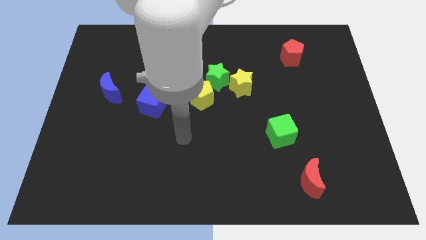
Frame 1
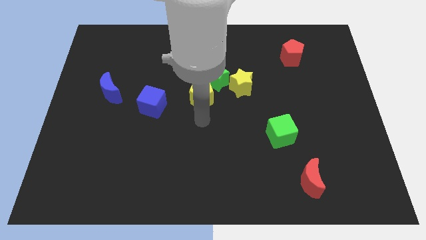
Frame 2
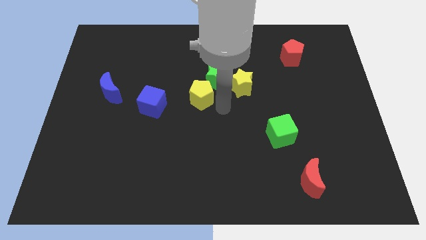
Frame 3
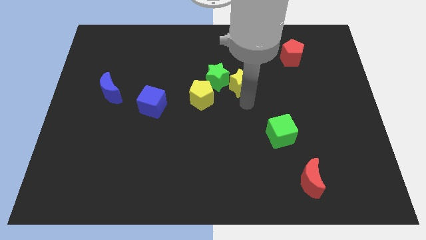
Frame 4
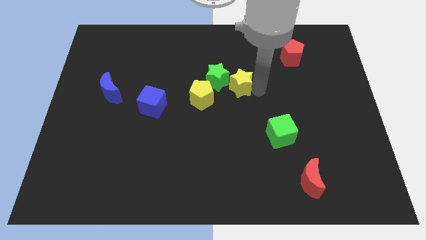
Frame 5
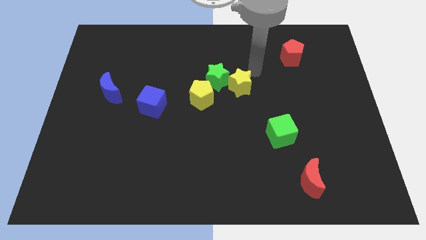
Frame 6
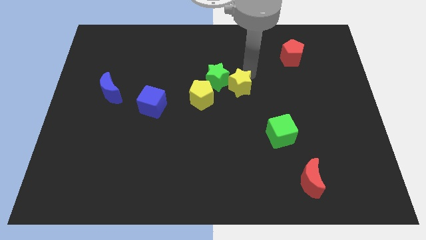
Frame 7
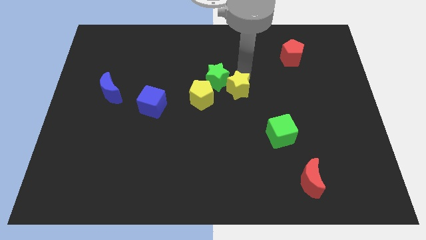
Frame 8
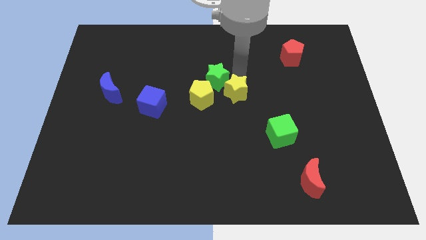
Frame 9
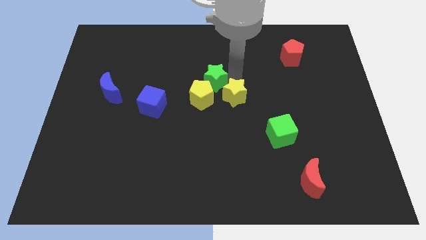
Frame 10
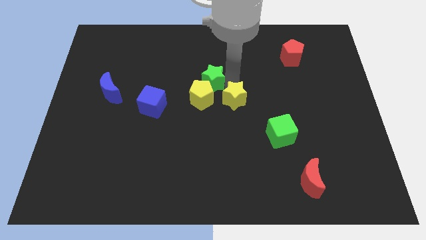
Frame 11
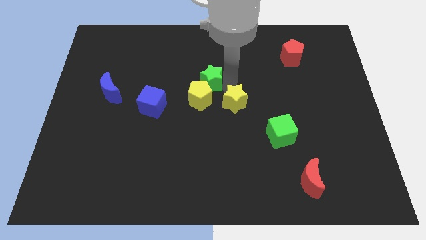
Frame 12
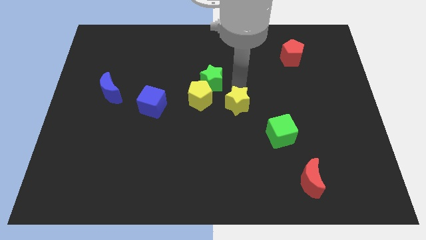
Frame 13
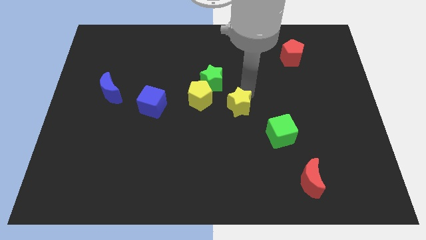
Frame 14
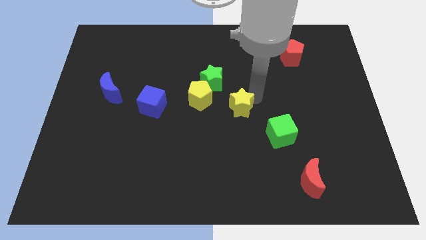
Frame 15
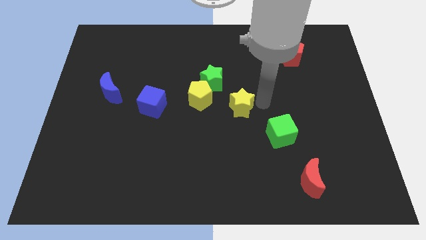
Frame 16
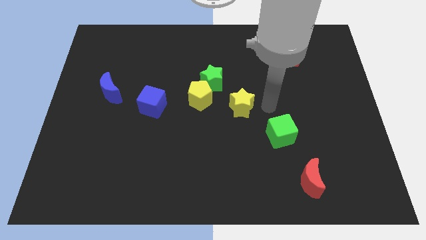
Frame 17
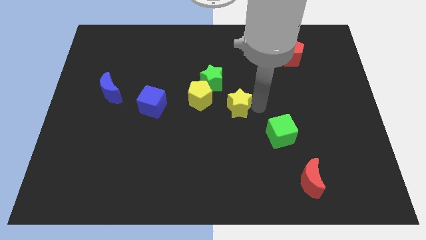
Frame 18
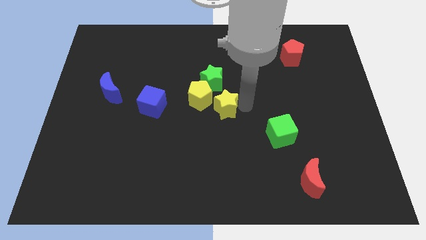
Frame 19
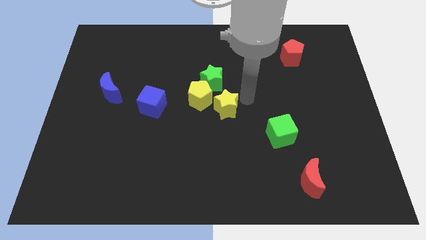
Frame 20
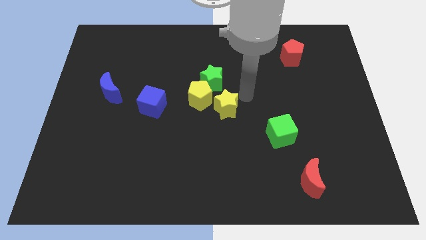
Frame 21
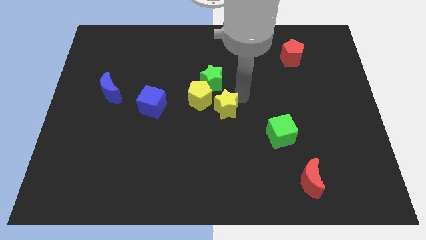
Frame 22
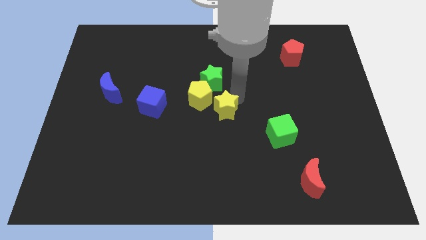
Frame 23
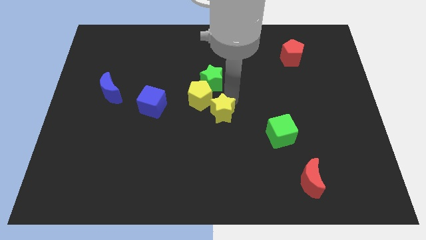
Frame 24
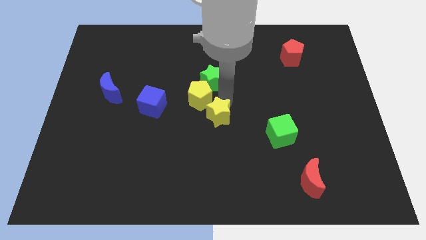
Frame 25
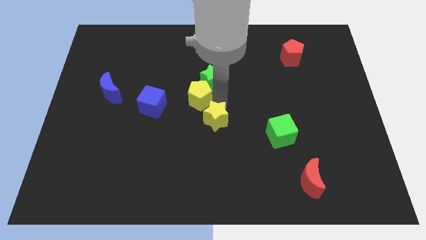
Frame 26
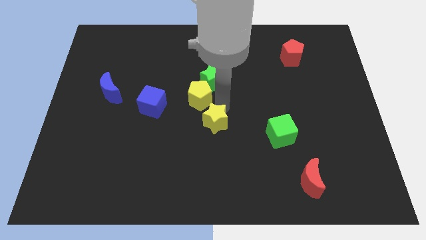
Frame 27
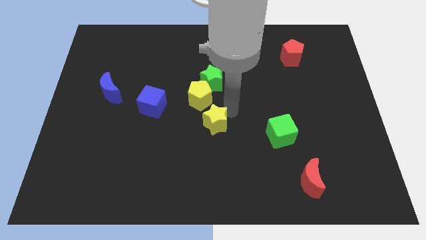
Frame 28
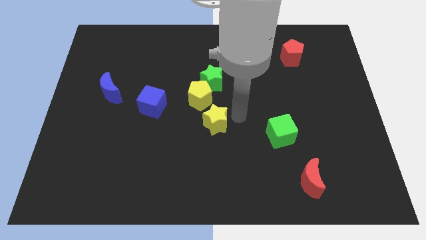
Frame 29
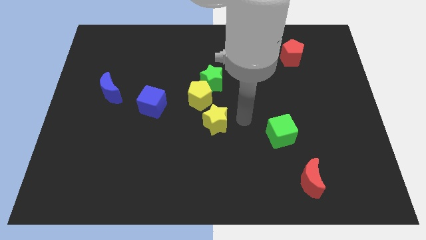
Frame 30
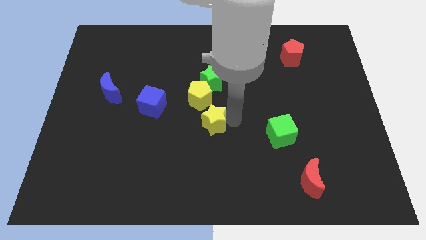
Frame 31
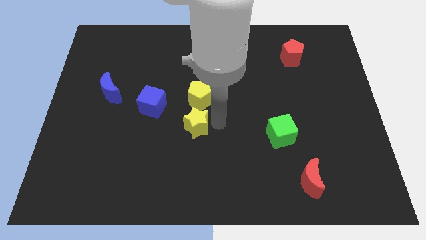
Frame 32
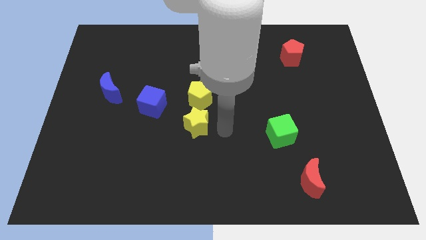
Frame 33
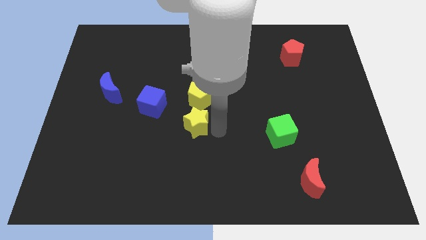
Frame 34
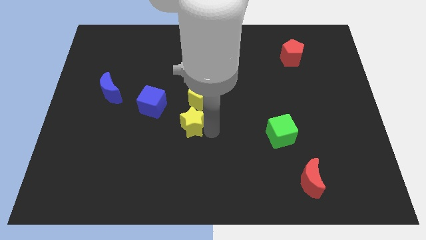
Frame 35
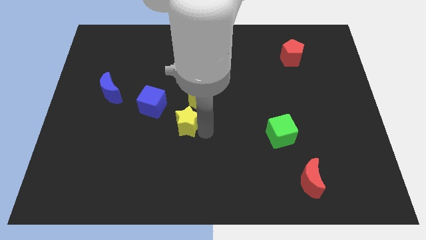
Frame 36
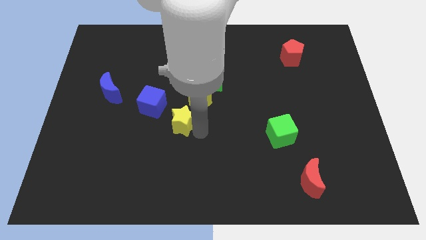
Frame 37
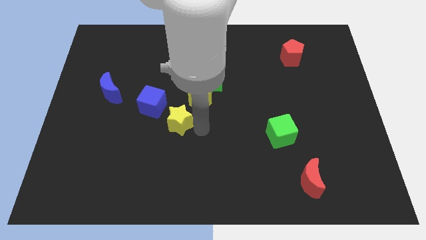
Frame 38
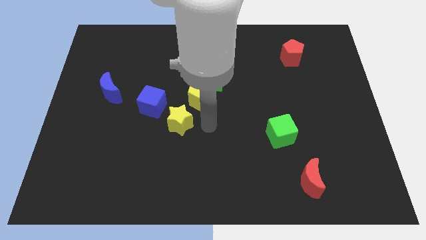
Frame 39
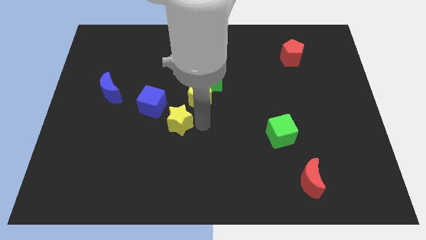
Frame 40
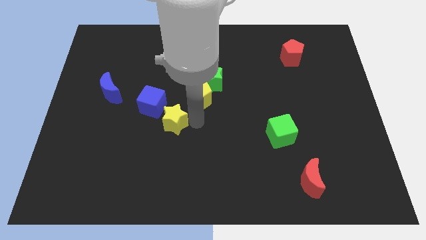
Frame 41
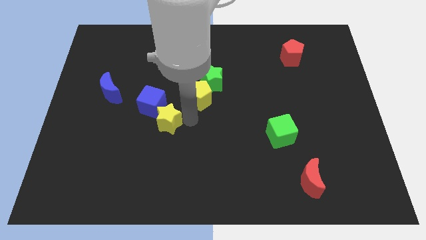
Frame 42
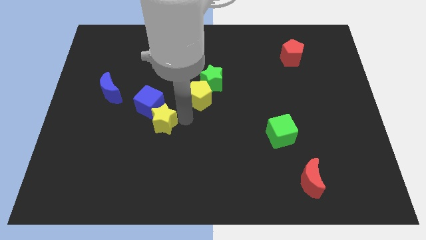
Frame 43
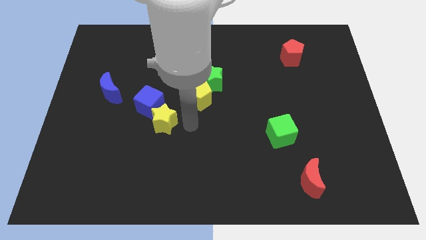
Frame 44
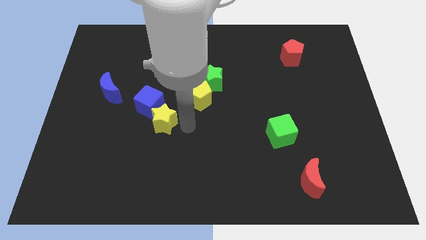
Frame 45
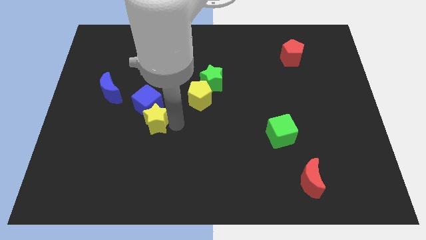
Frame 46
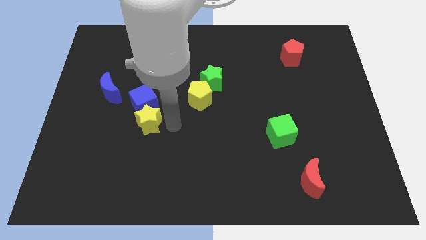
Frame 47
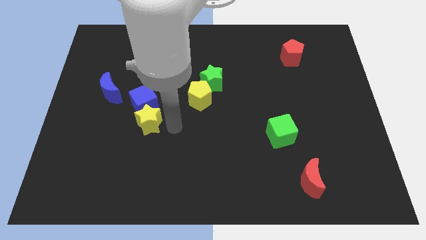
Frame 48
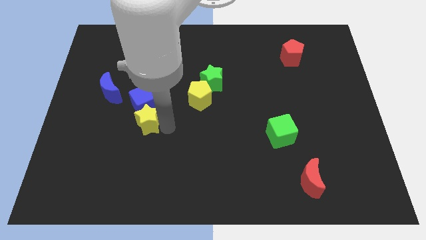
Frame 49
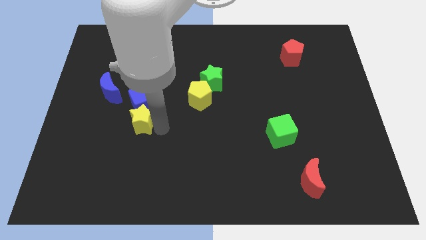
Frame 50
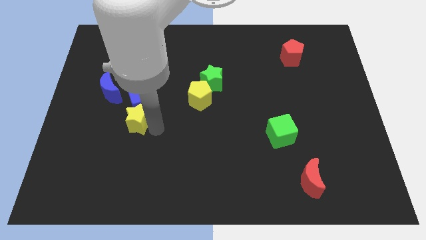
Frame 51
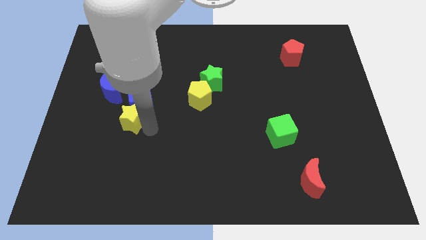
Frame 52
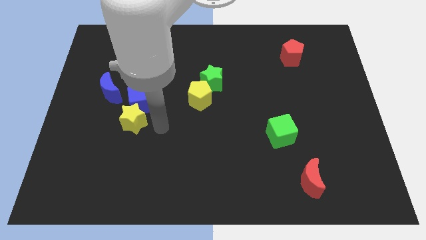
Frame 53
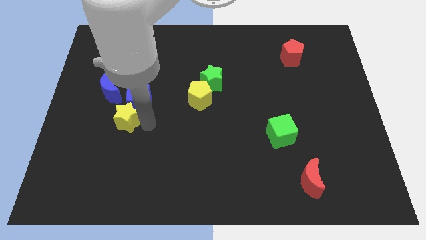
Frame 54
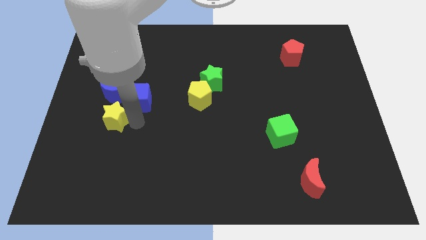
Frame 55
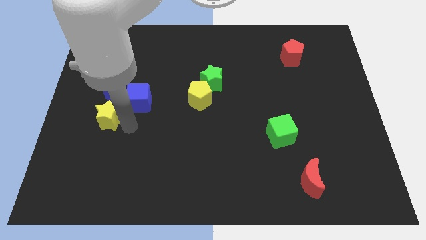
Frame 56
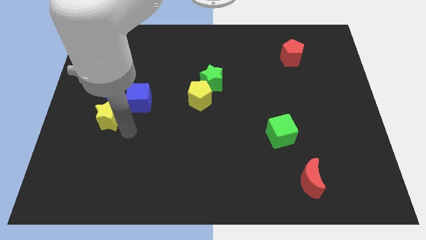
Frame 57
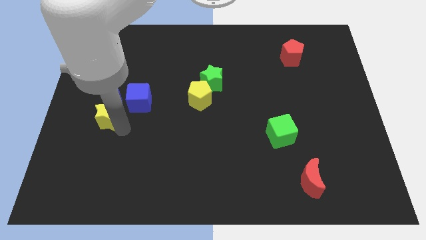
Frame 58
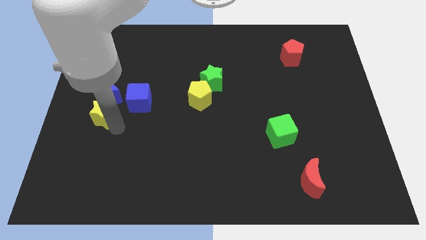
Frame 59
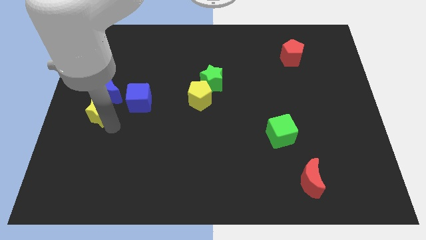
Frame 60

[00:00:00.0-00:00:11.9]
push the yellow star to the left side of the board
